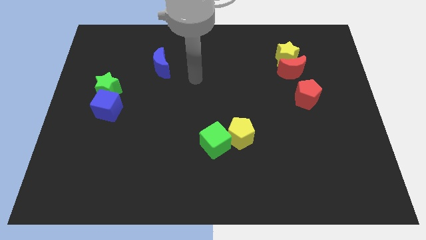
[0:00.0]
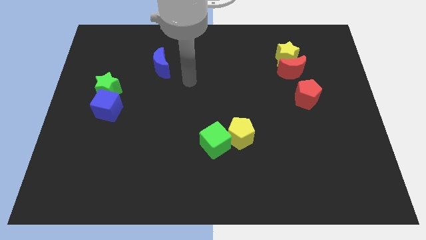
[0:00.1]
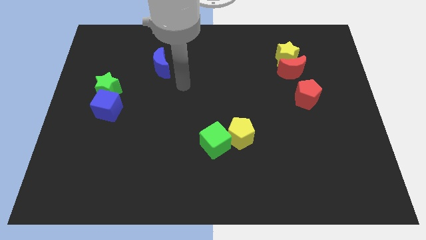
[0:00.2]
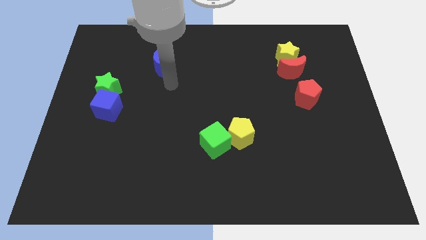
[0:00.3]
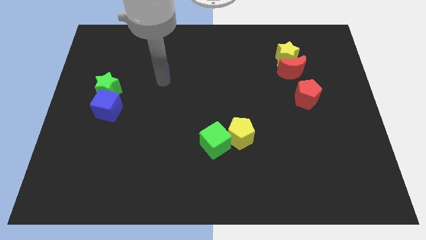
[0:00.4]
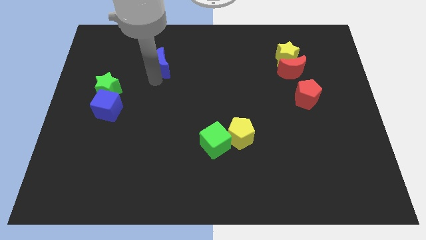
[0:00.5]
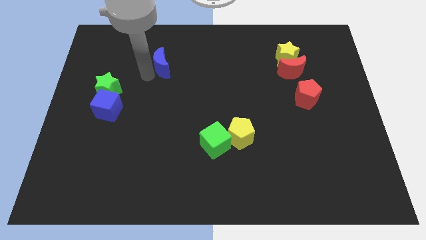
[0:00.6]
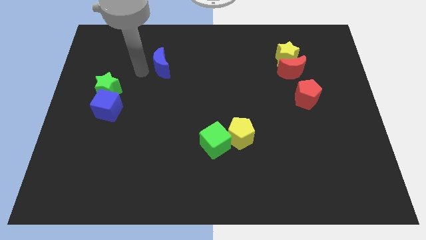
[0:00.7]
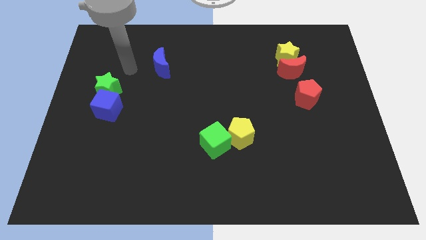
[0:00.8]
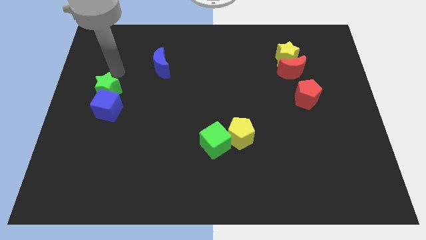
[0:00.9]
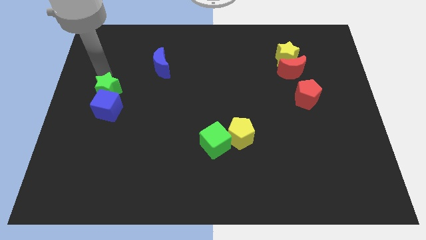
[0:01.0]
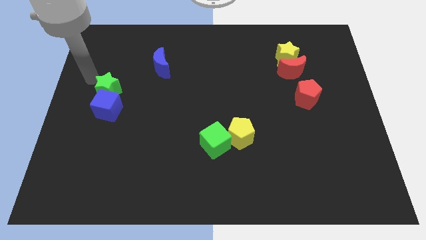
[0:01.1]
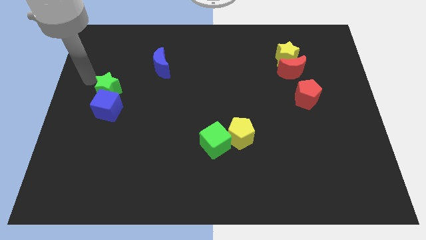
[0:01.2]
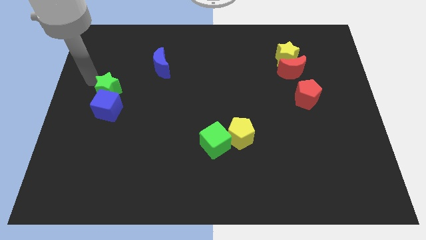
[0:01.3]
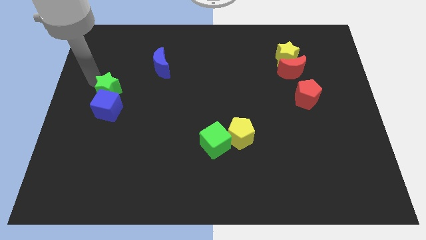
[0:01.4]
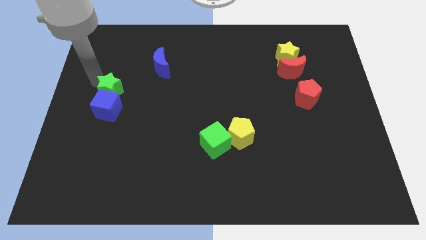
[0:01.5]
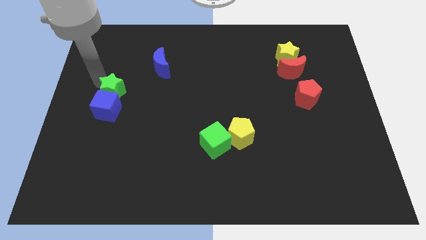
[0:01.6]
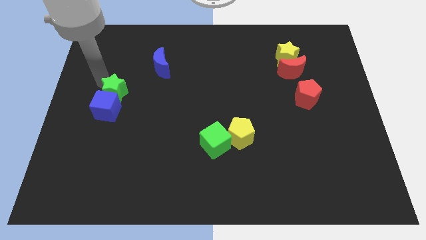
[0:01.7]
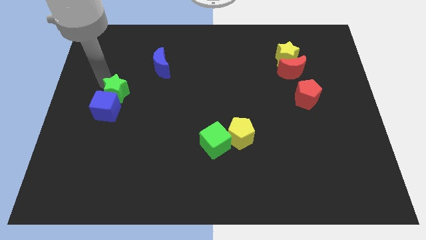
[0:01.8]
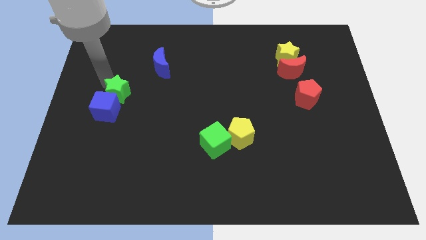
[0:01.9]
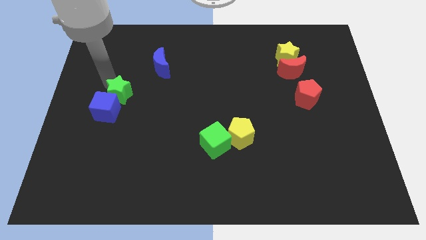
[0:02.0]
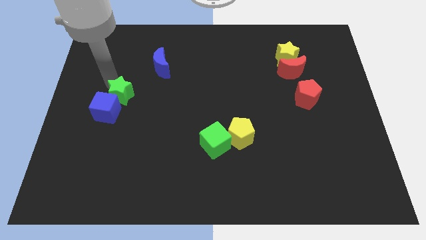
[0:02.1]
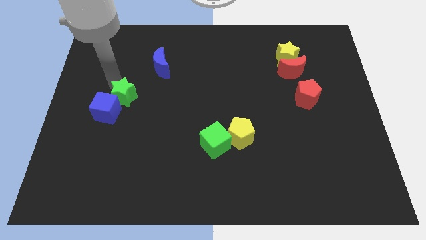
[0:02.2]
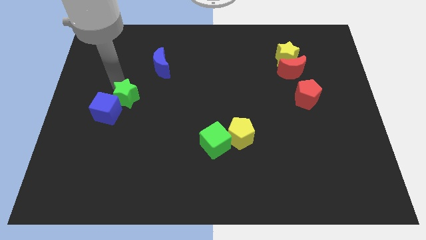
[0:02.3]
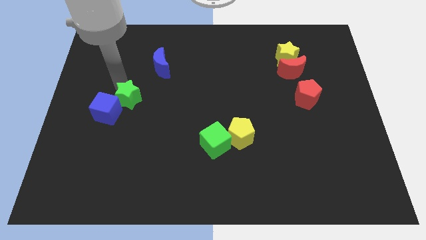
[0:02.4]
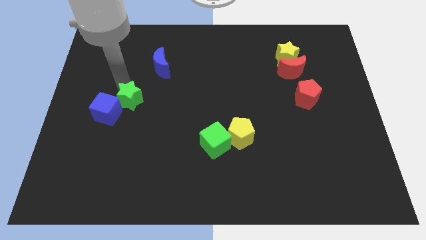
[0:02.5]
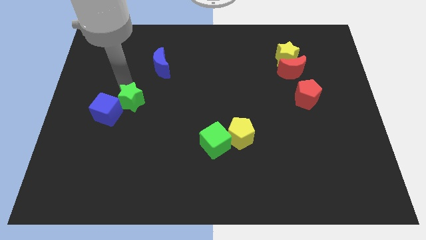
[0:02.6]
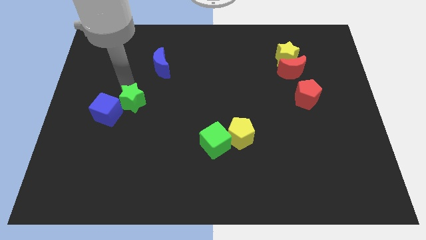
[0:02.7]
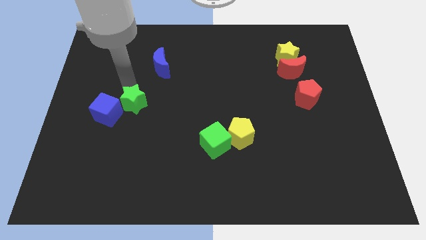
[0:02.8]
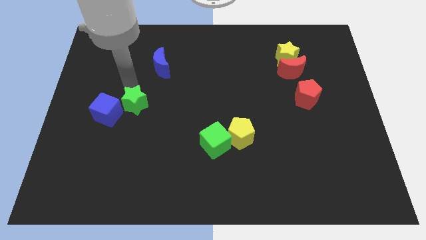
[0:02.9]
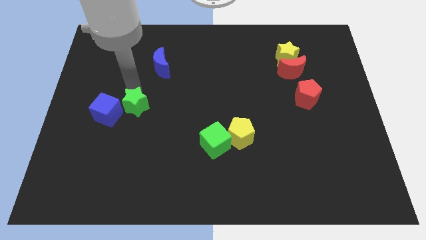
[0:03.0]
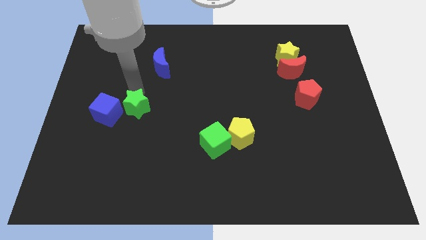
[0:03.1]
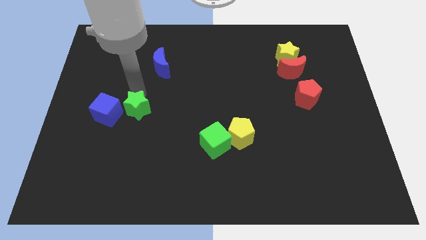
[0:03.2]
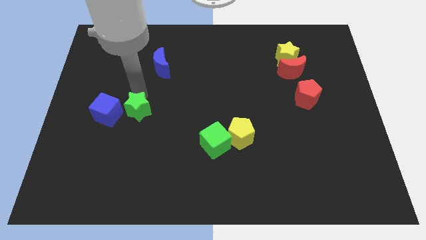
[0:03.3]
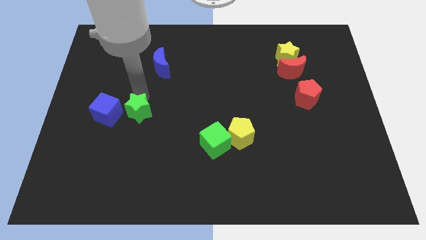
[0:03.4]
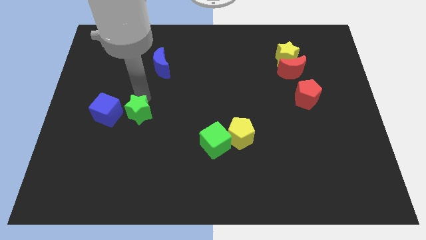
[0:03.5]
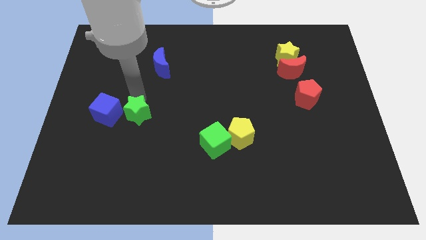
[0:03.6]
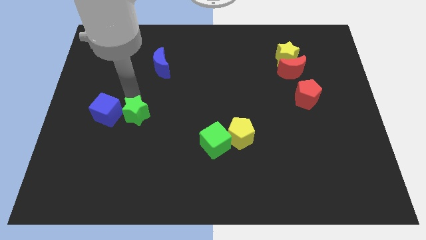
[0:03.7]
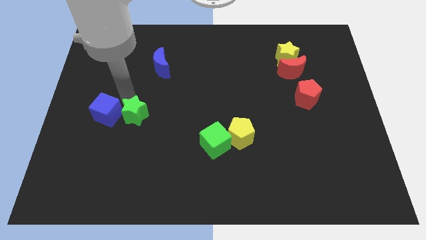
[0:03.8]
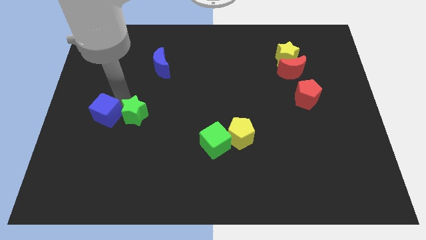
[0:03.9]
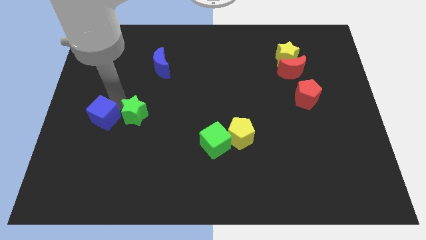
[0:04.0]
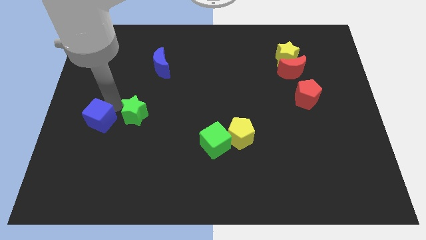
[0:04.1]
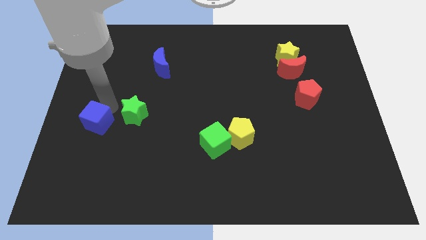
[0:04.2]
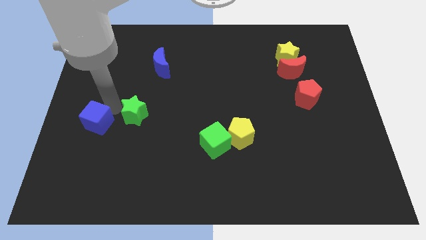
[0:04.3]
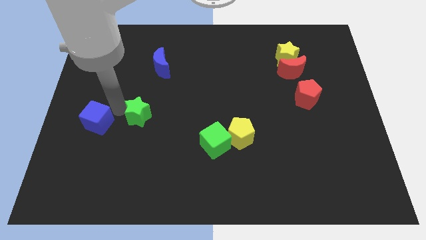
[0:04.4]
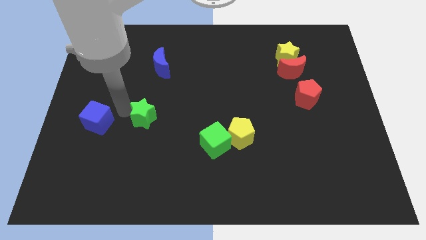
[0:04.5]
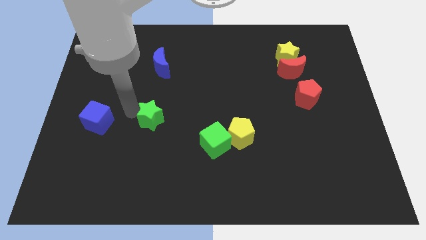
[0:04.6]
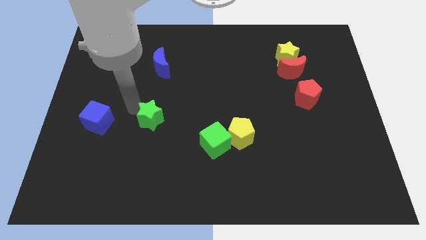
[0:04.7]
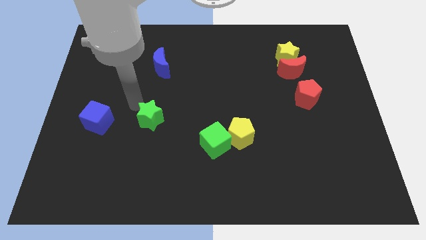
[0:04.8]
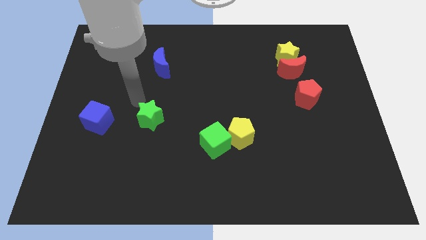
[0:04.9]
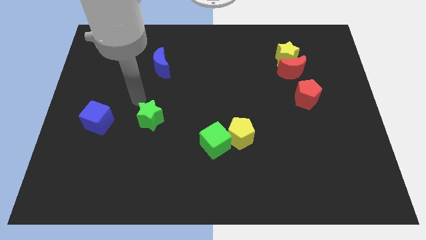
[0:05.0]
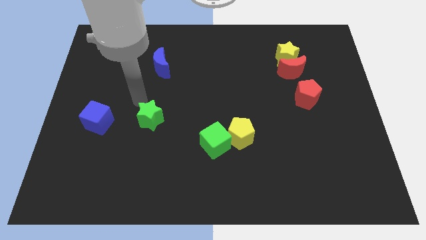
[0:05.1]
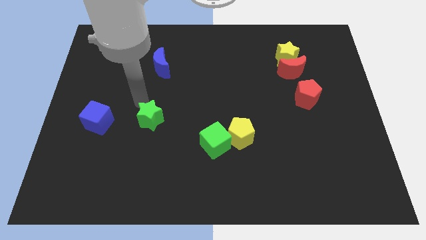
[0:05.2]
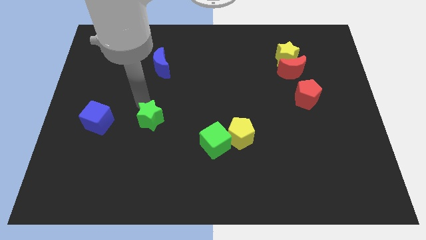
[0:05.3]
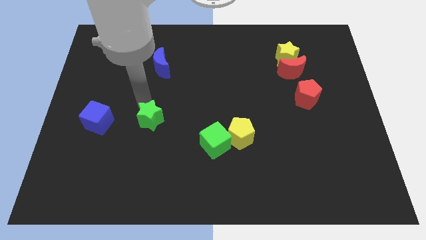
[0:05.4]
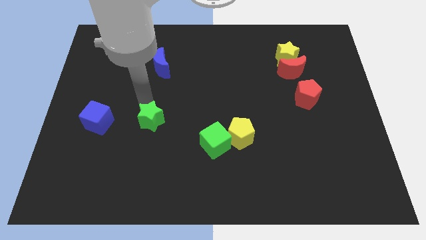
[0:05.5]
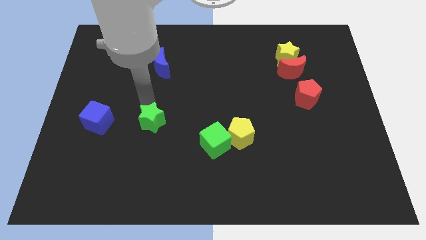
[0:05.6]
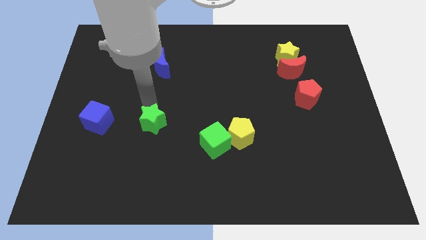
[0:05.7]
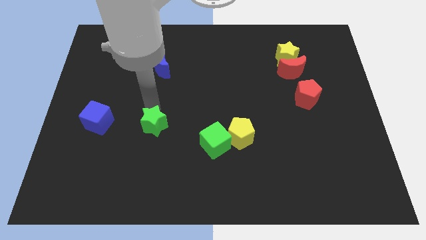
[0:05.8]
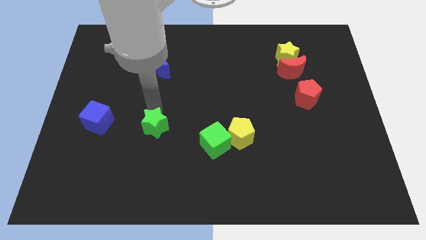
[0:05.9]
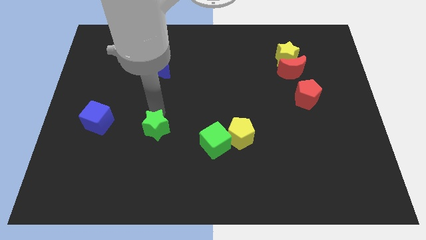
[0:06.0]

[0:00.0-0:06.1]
push the green star to the left side of the green cube
